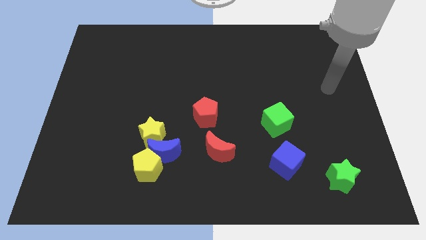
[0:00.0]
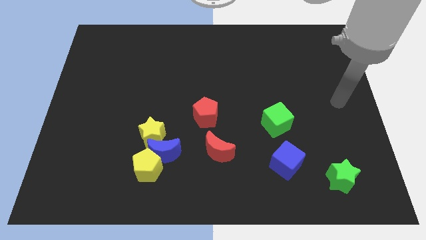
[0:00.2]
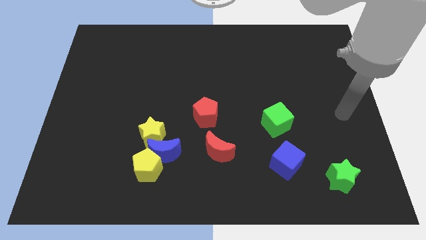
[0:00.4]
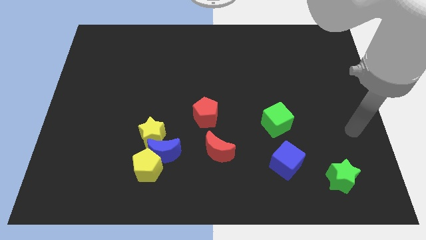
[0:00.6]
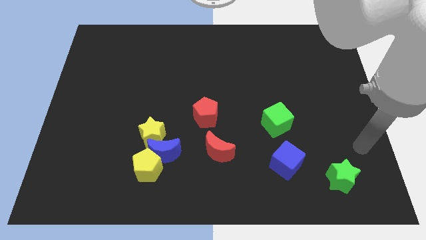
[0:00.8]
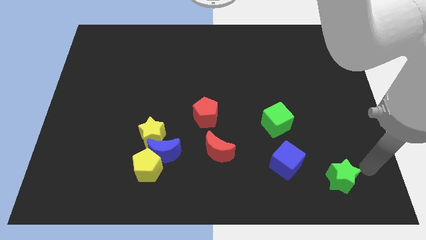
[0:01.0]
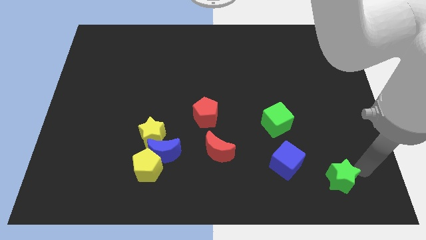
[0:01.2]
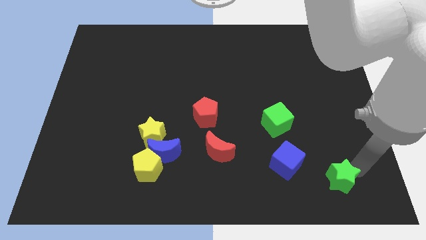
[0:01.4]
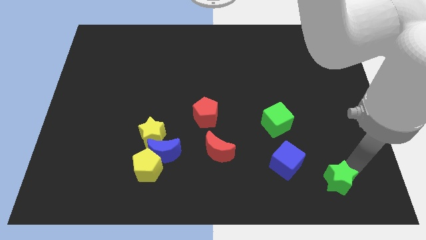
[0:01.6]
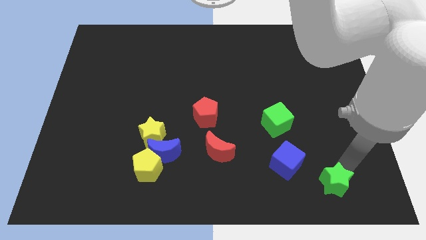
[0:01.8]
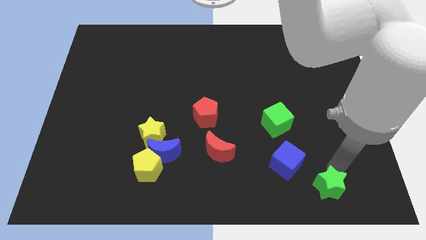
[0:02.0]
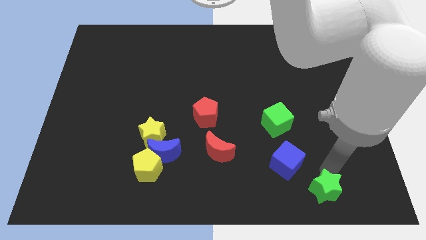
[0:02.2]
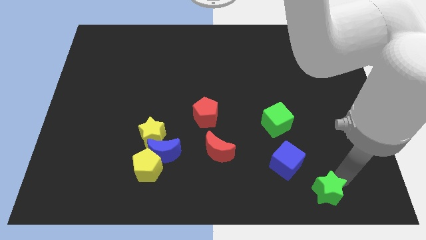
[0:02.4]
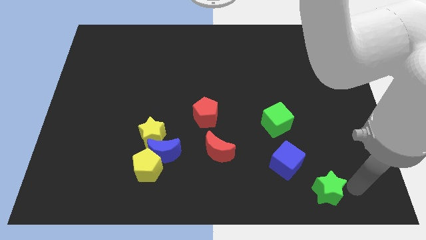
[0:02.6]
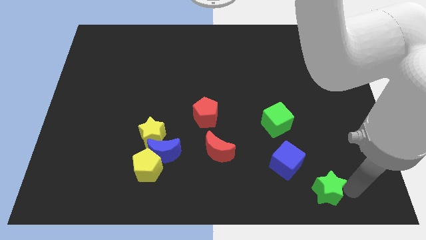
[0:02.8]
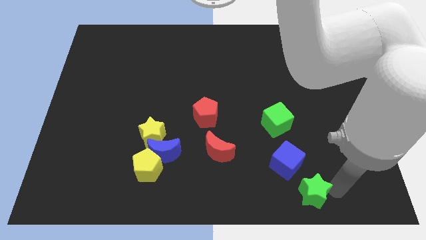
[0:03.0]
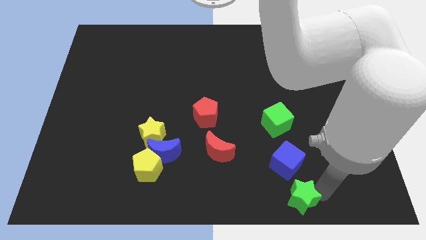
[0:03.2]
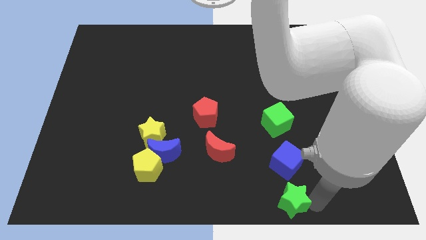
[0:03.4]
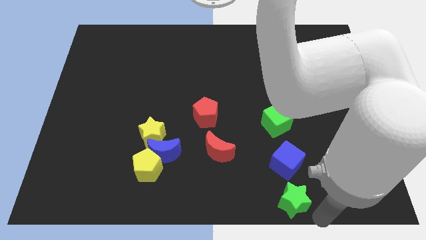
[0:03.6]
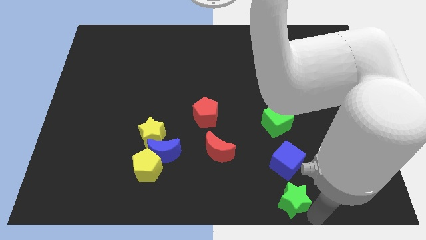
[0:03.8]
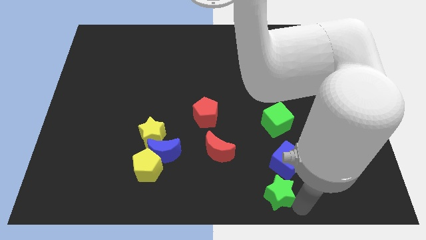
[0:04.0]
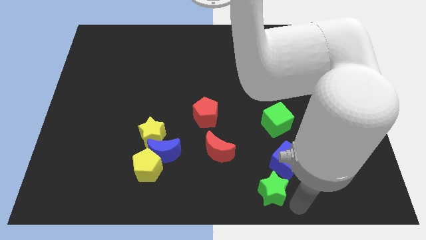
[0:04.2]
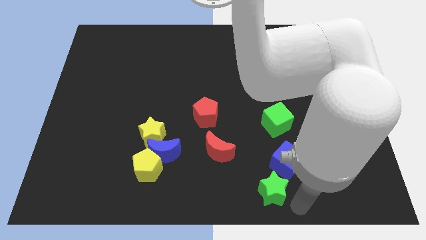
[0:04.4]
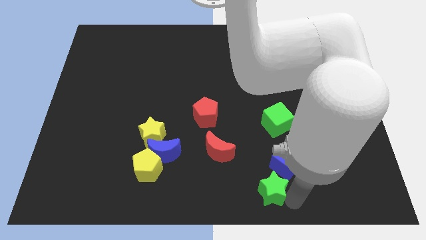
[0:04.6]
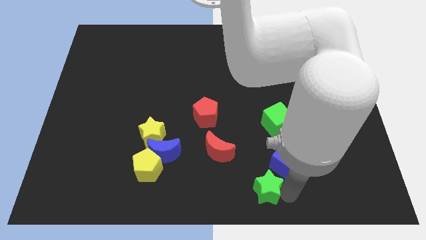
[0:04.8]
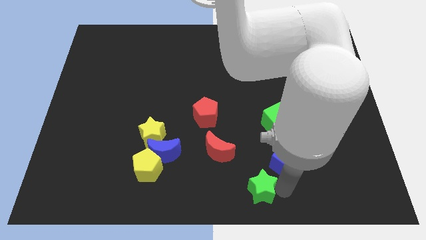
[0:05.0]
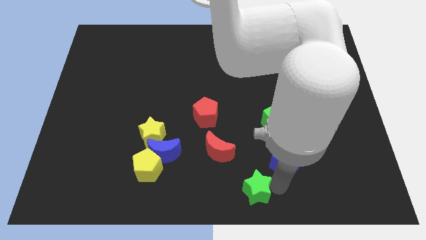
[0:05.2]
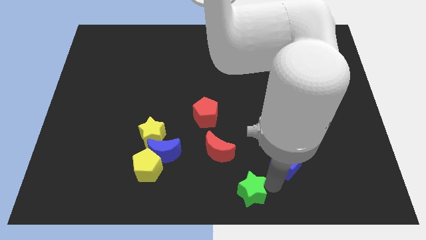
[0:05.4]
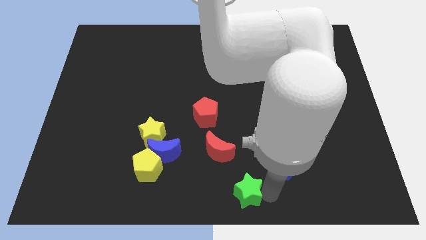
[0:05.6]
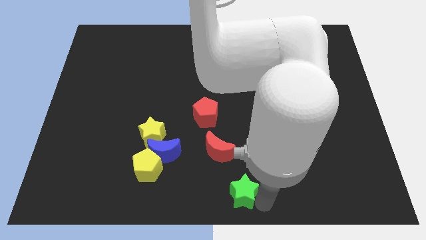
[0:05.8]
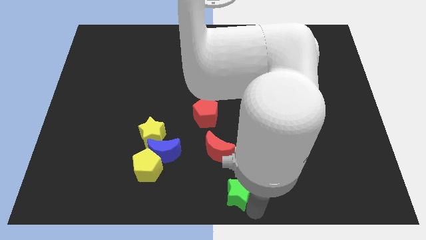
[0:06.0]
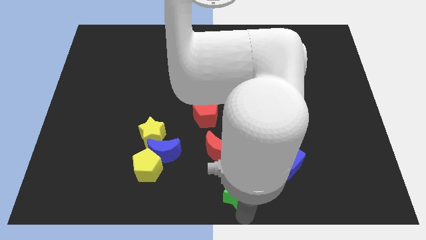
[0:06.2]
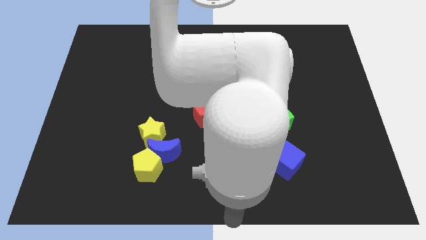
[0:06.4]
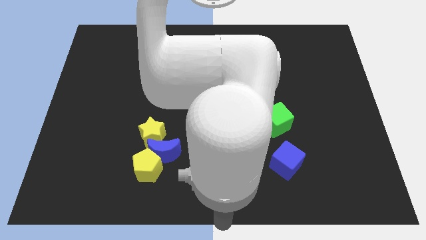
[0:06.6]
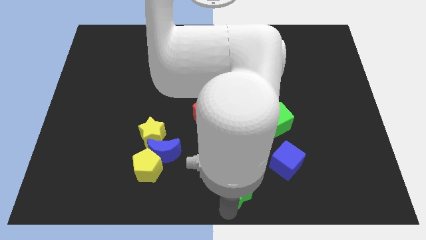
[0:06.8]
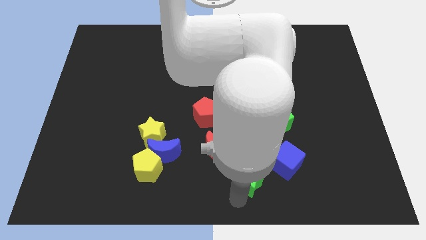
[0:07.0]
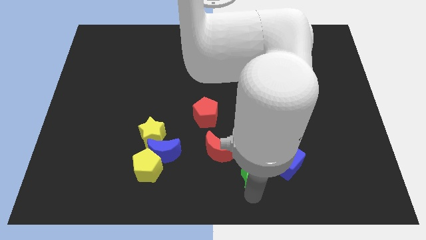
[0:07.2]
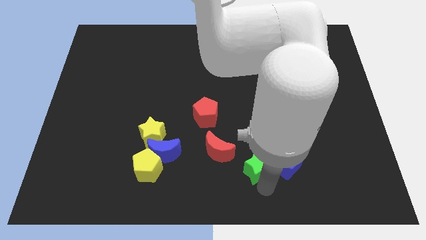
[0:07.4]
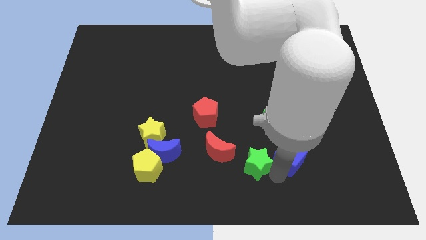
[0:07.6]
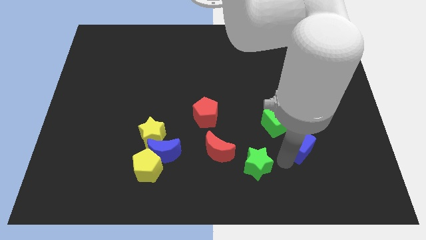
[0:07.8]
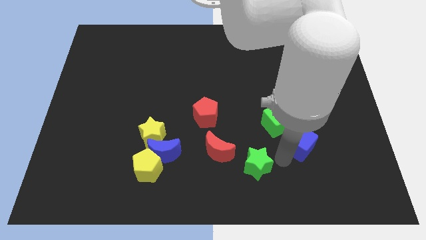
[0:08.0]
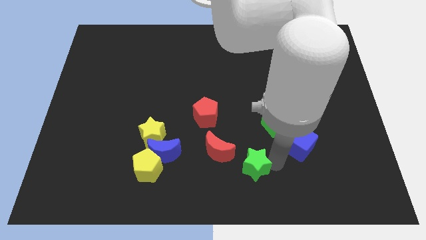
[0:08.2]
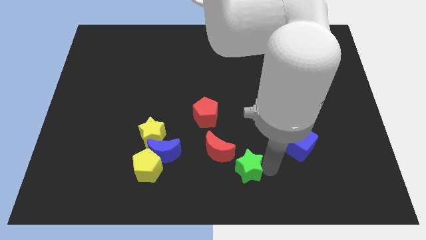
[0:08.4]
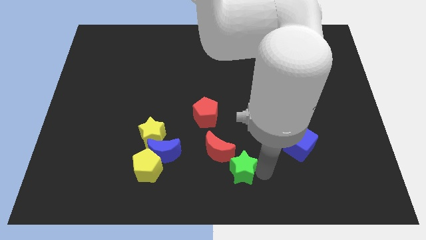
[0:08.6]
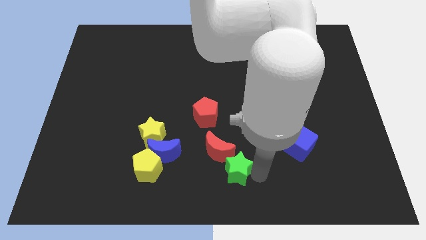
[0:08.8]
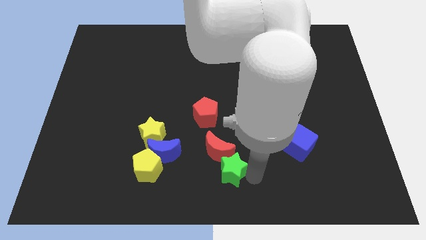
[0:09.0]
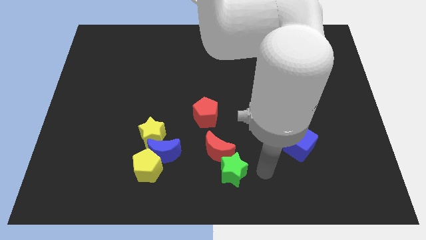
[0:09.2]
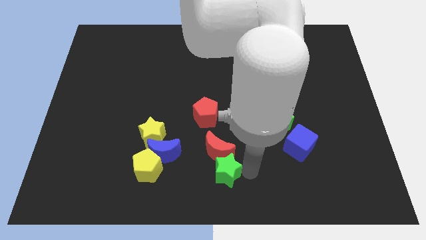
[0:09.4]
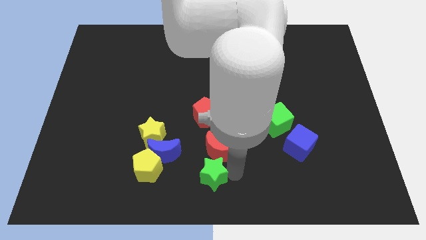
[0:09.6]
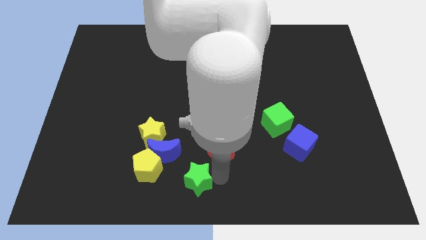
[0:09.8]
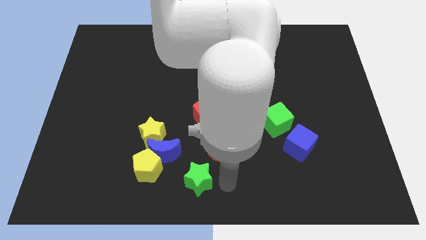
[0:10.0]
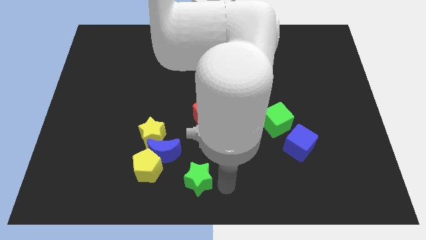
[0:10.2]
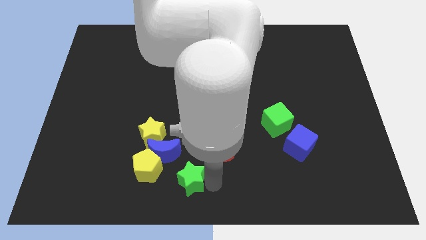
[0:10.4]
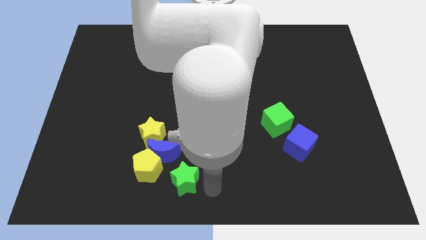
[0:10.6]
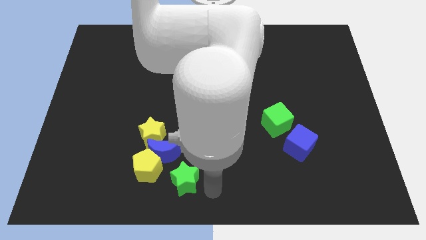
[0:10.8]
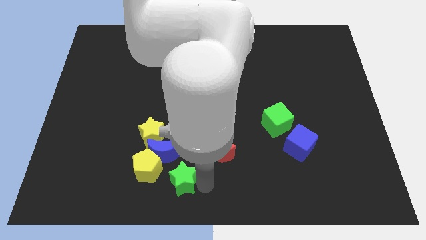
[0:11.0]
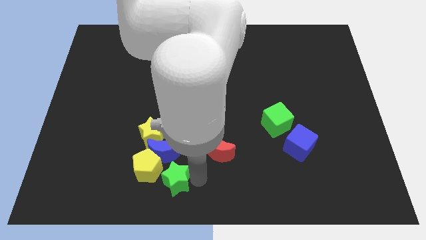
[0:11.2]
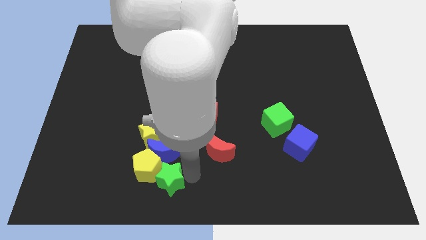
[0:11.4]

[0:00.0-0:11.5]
push the green star to the yellow pentagon

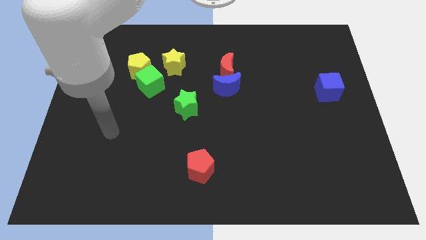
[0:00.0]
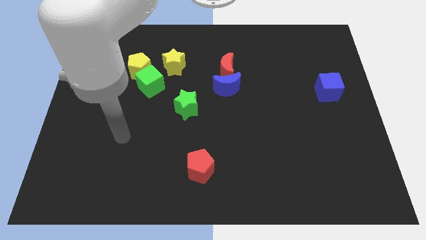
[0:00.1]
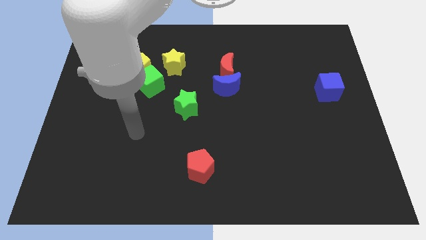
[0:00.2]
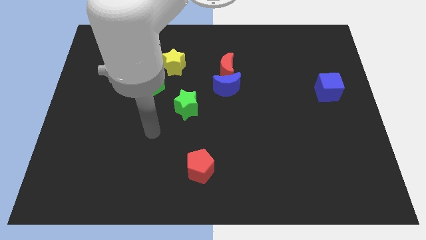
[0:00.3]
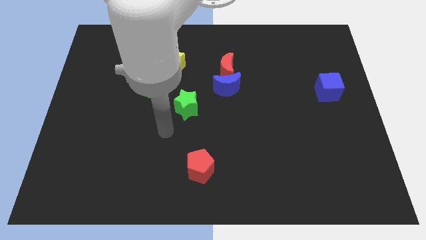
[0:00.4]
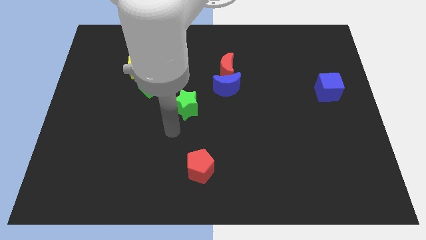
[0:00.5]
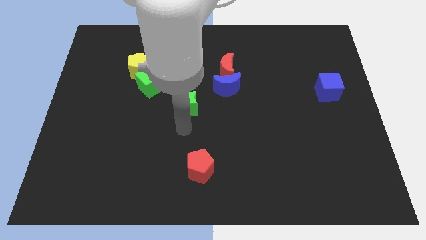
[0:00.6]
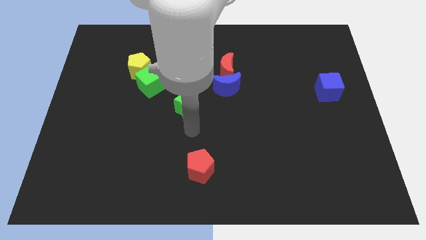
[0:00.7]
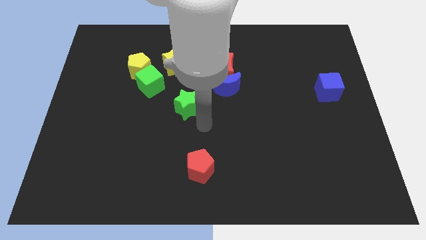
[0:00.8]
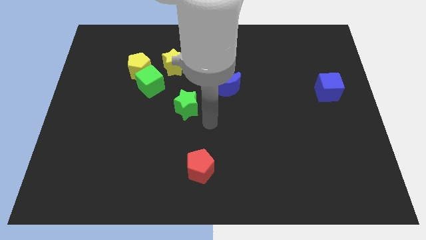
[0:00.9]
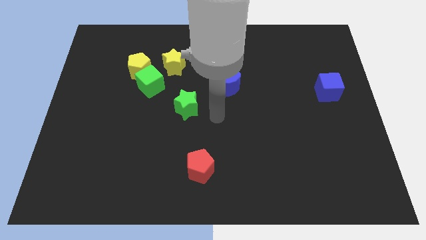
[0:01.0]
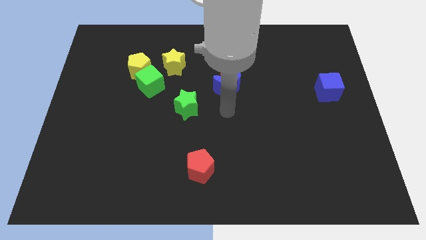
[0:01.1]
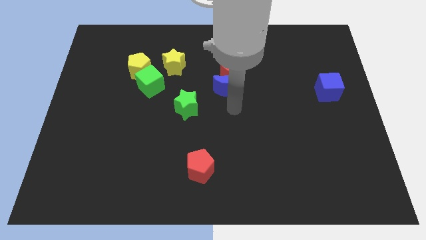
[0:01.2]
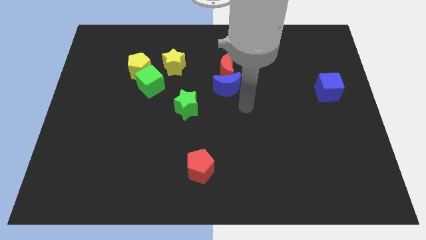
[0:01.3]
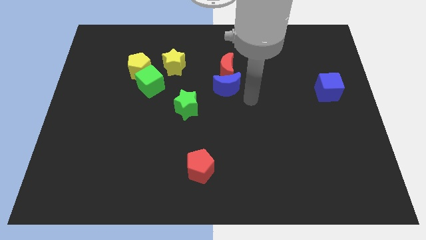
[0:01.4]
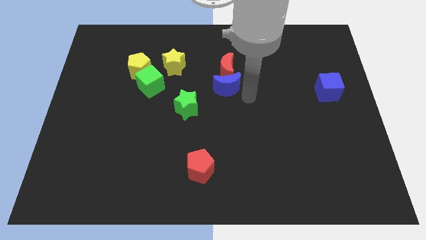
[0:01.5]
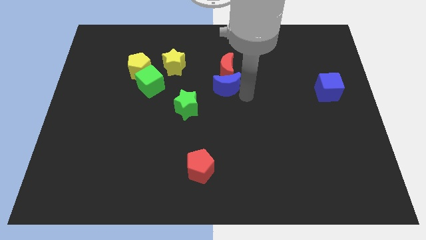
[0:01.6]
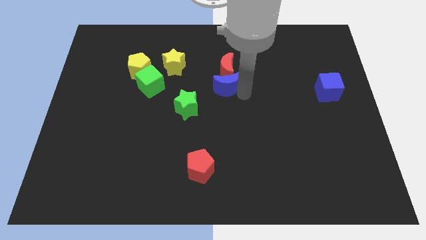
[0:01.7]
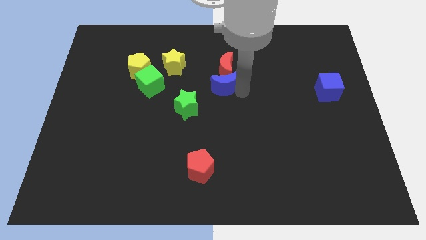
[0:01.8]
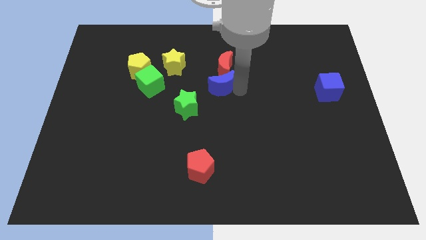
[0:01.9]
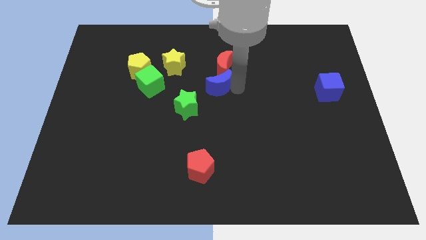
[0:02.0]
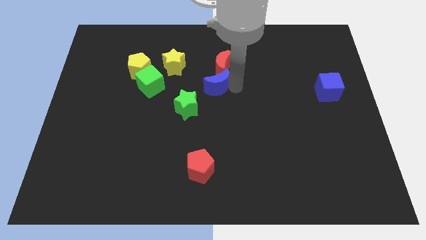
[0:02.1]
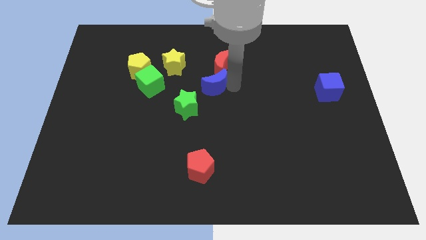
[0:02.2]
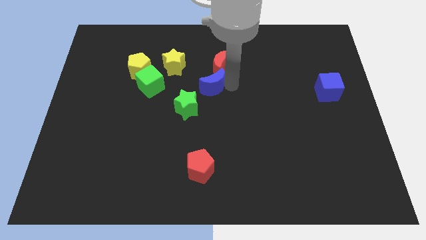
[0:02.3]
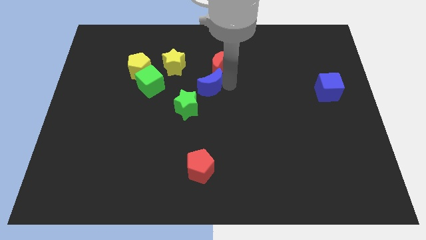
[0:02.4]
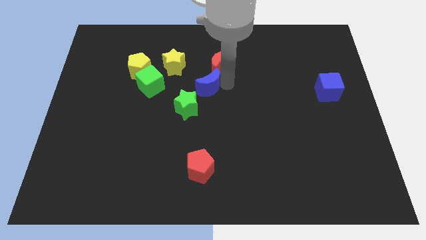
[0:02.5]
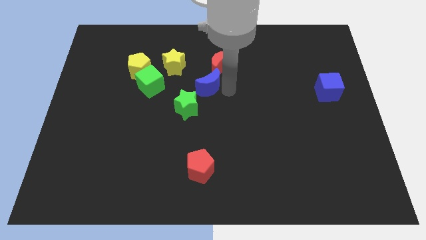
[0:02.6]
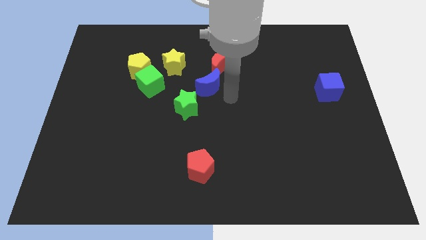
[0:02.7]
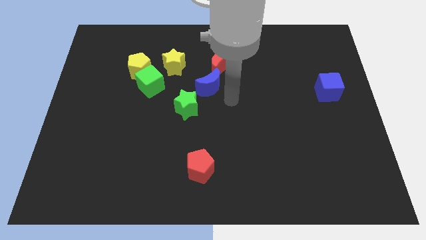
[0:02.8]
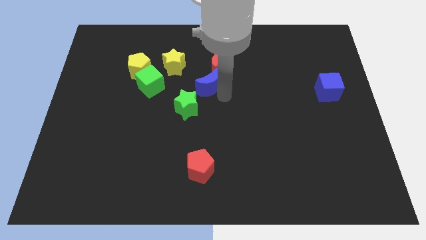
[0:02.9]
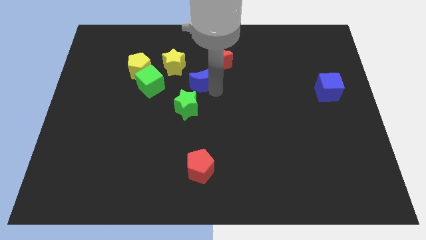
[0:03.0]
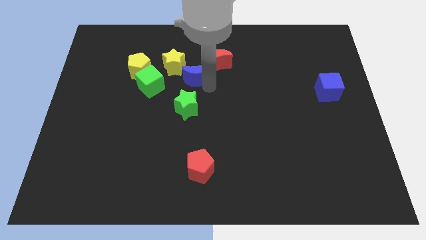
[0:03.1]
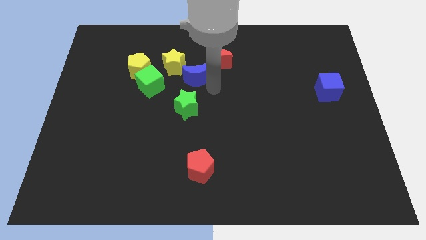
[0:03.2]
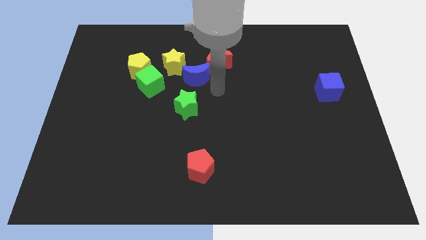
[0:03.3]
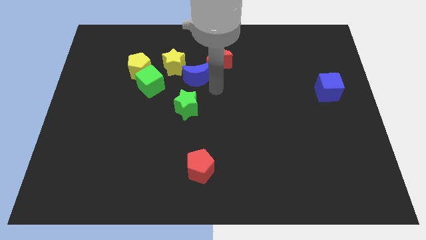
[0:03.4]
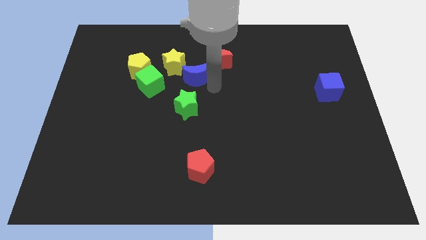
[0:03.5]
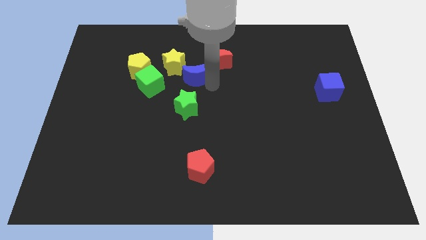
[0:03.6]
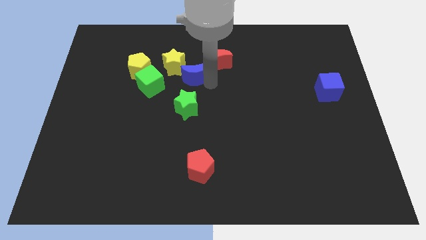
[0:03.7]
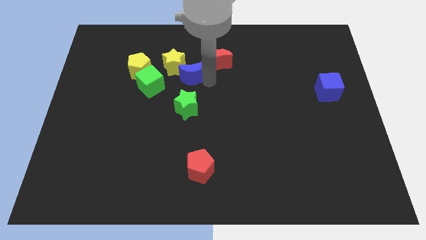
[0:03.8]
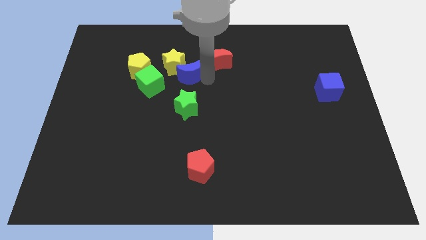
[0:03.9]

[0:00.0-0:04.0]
push the blue moon towards the yellow star
